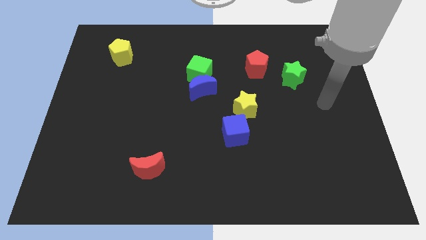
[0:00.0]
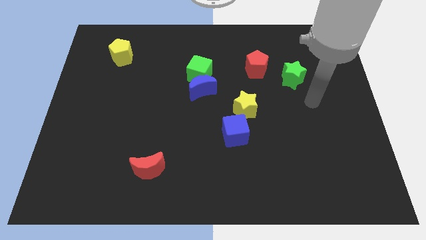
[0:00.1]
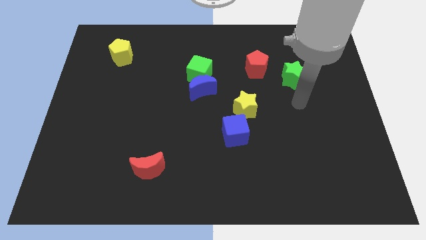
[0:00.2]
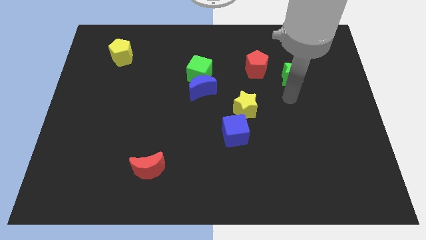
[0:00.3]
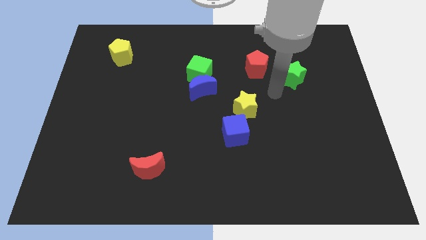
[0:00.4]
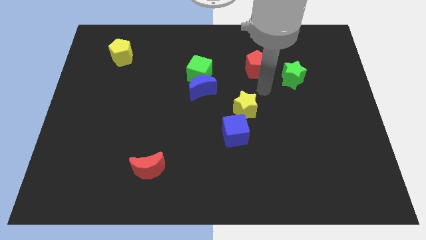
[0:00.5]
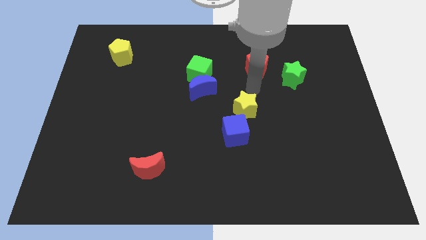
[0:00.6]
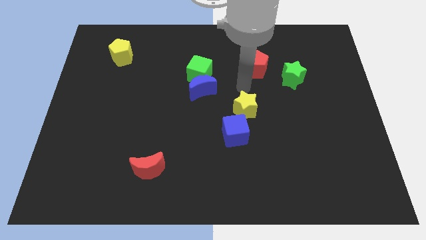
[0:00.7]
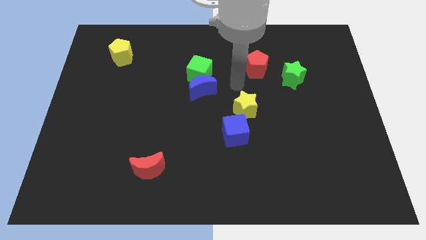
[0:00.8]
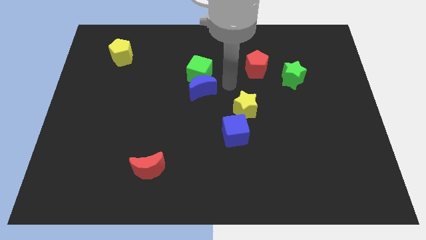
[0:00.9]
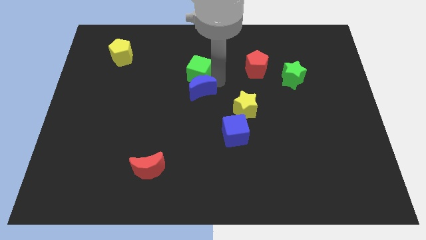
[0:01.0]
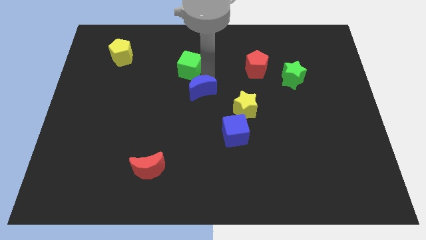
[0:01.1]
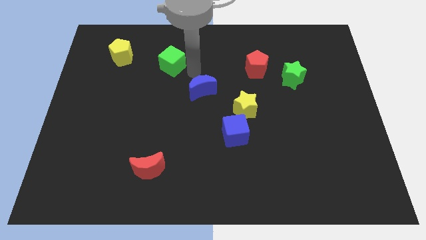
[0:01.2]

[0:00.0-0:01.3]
separate the blue moon from the green cube

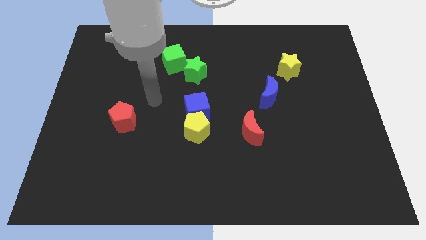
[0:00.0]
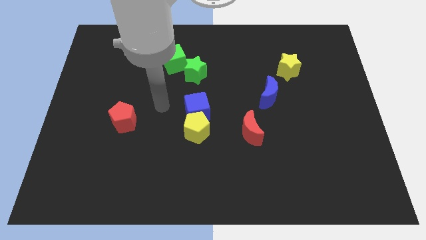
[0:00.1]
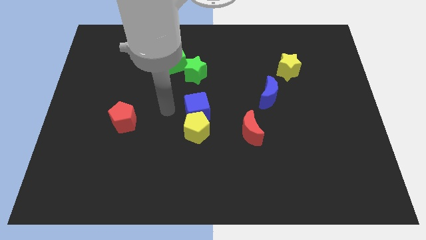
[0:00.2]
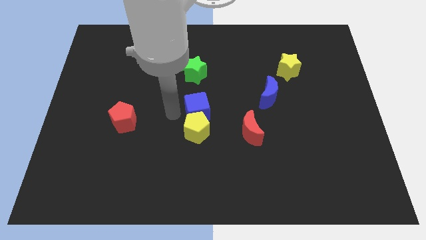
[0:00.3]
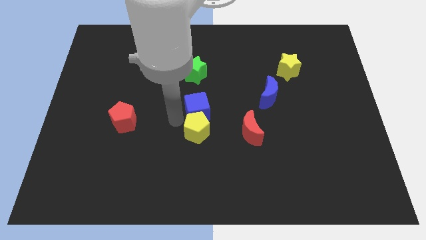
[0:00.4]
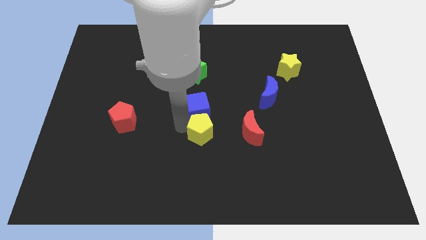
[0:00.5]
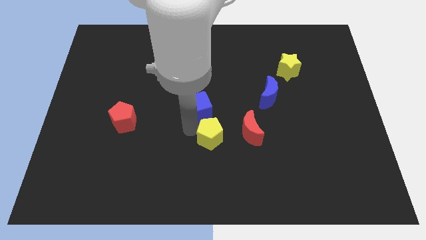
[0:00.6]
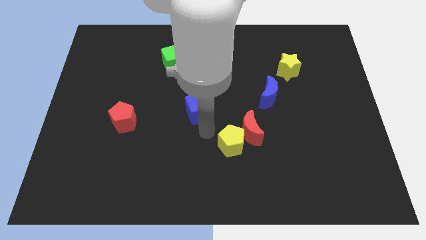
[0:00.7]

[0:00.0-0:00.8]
pull the blue cube apart from the yellow pentagon

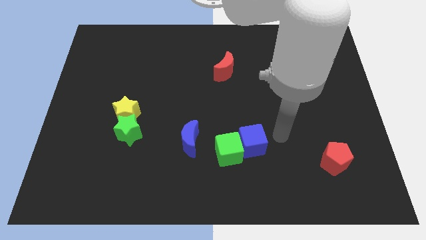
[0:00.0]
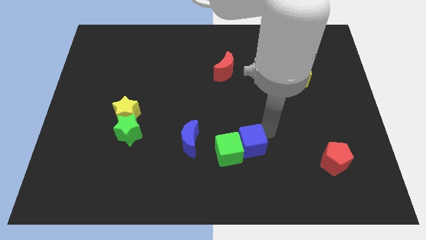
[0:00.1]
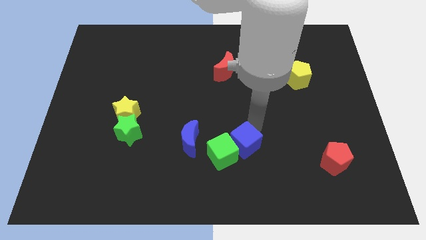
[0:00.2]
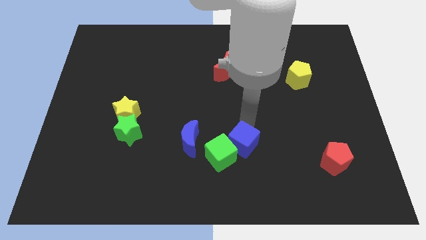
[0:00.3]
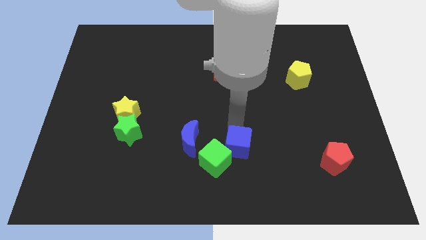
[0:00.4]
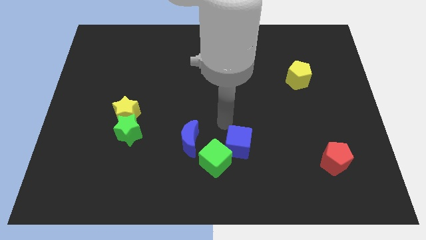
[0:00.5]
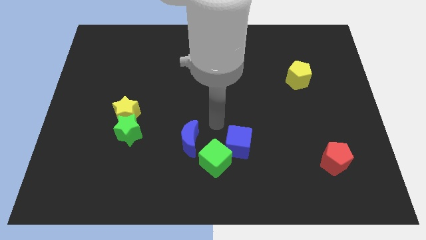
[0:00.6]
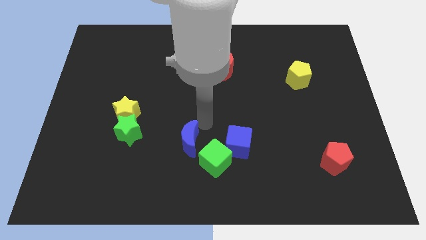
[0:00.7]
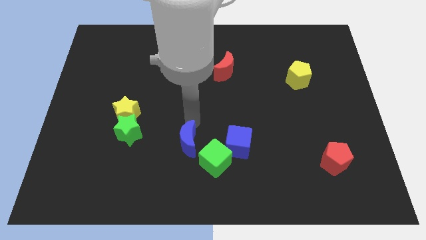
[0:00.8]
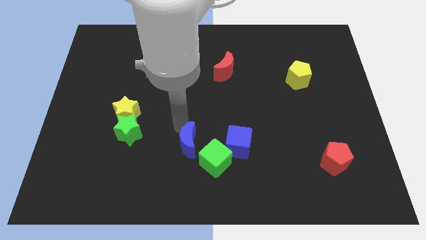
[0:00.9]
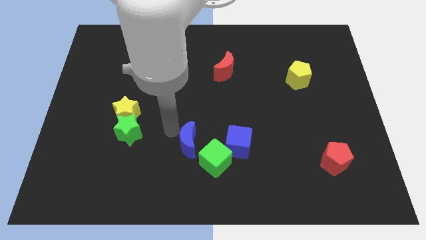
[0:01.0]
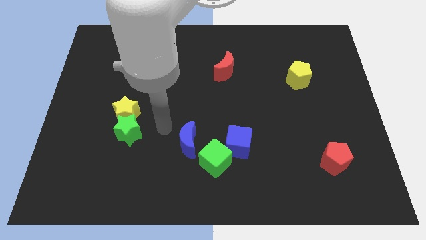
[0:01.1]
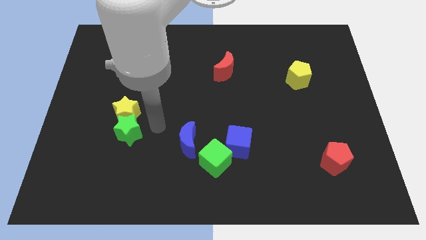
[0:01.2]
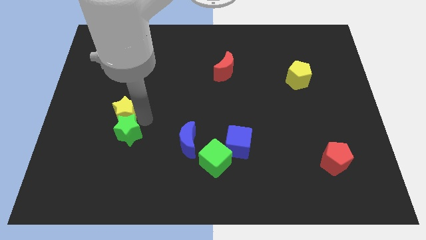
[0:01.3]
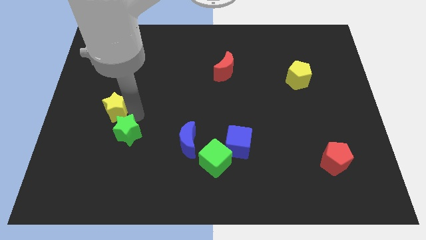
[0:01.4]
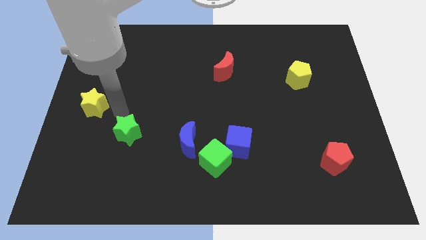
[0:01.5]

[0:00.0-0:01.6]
separate the green star from the yellow star

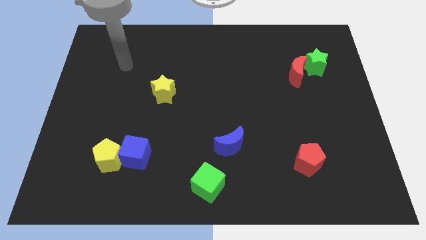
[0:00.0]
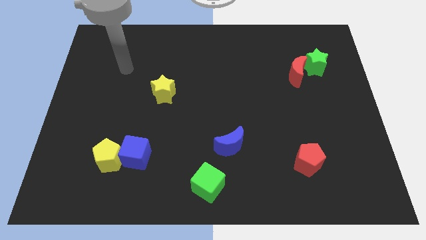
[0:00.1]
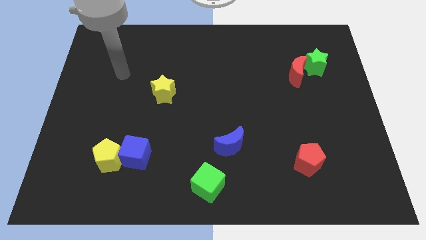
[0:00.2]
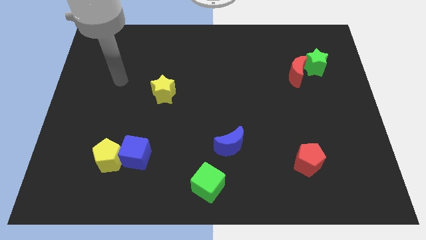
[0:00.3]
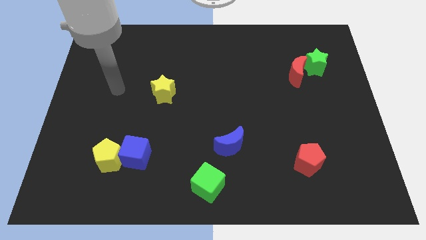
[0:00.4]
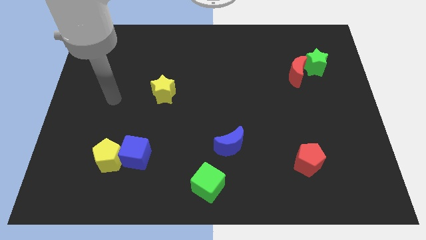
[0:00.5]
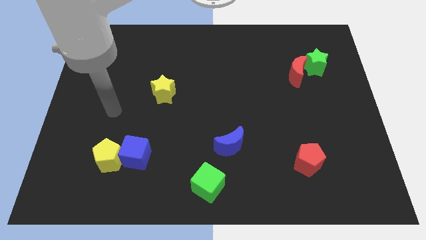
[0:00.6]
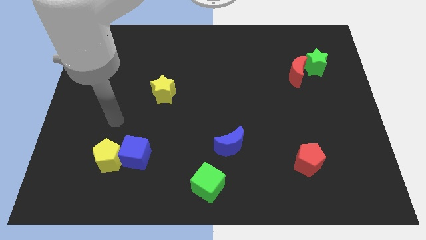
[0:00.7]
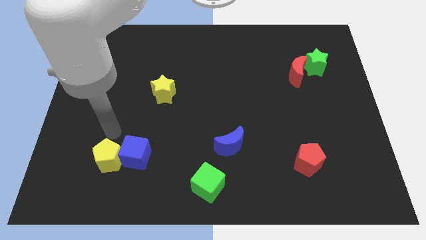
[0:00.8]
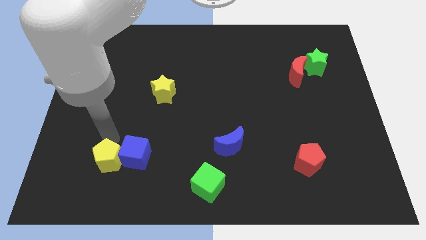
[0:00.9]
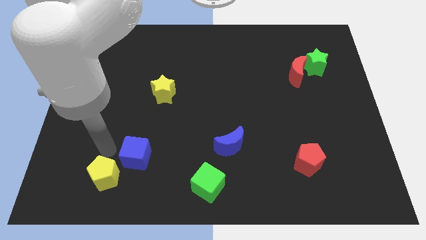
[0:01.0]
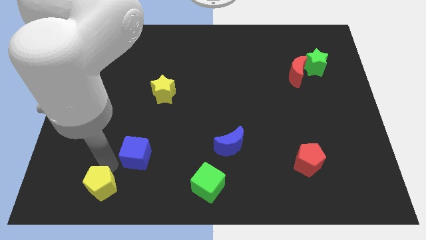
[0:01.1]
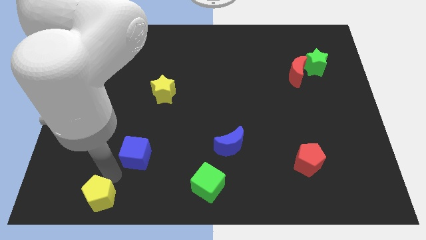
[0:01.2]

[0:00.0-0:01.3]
move the blue cube away from the yellow pentagon

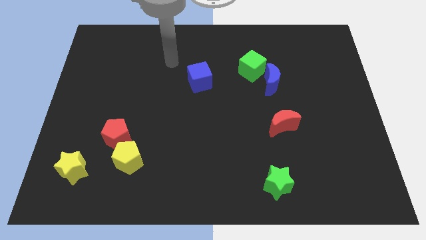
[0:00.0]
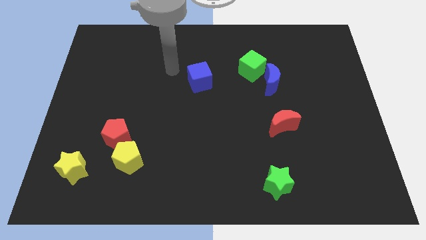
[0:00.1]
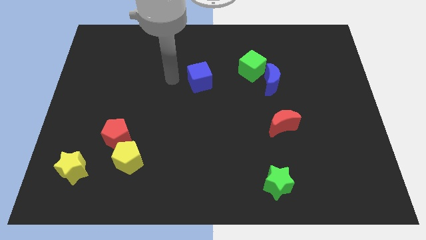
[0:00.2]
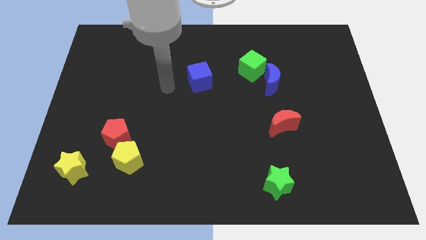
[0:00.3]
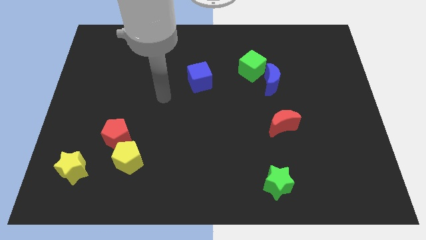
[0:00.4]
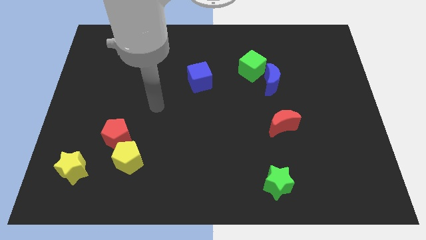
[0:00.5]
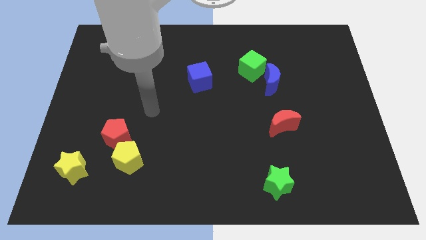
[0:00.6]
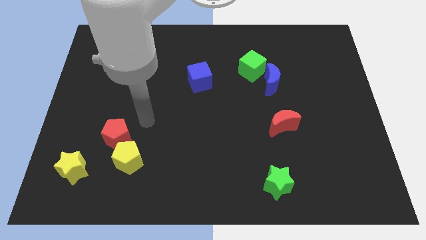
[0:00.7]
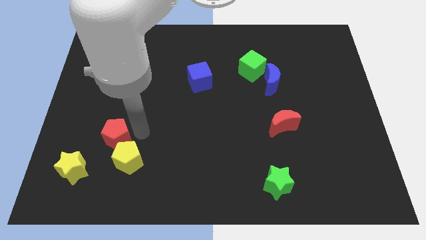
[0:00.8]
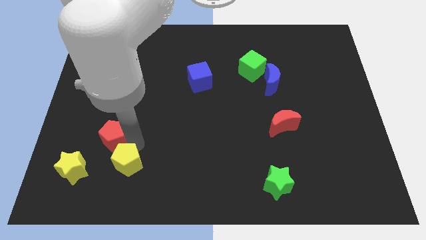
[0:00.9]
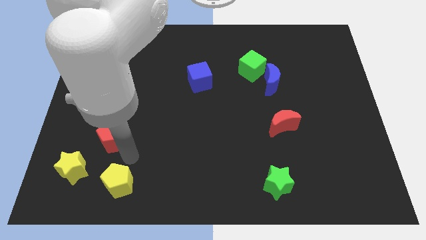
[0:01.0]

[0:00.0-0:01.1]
move the red pentagon away from the yellow pentagon

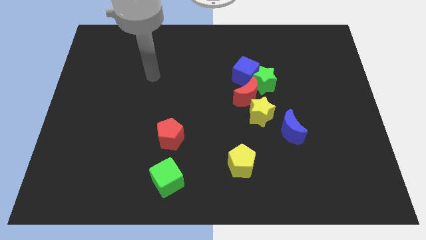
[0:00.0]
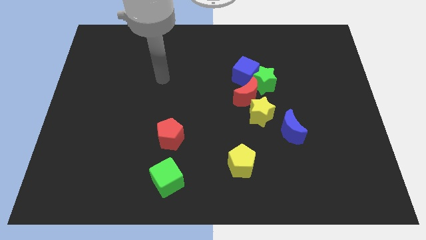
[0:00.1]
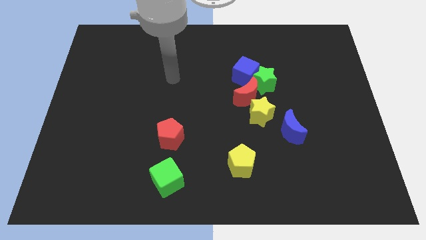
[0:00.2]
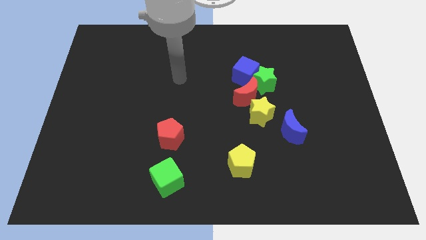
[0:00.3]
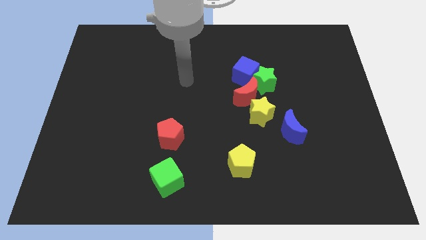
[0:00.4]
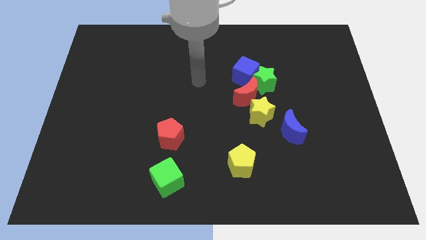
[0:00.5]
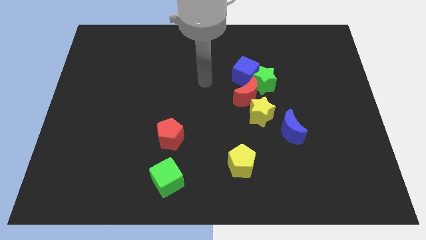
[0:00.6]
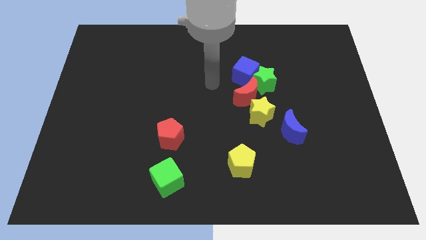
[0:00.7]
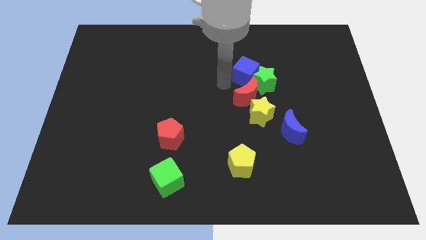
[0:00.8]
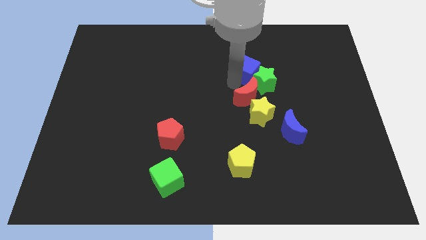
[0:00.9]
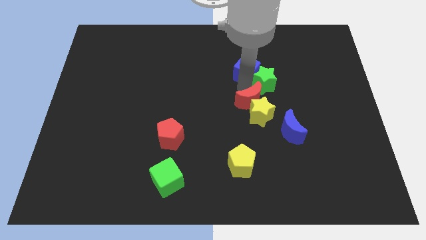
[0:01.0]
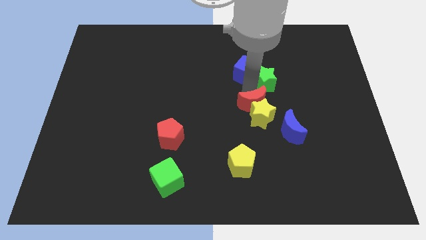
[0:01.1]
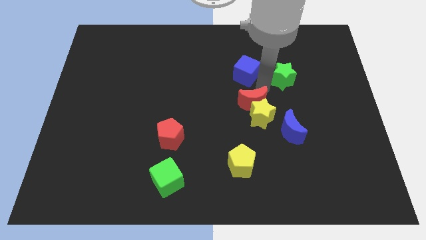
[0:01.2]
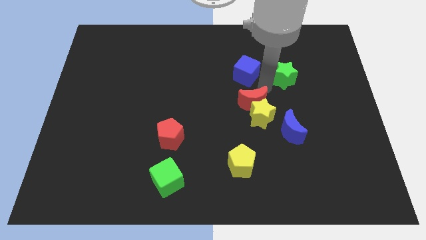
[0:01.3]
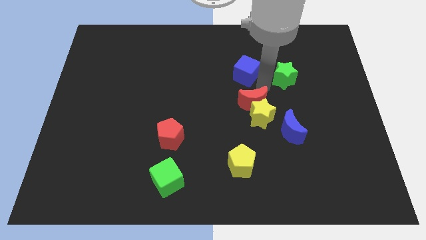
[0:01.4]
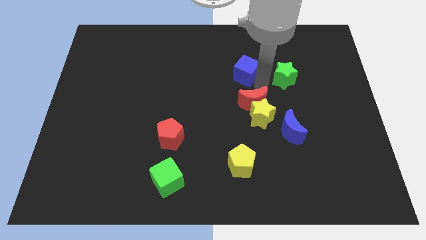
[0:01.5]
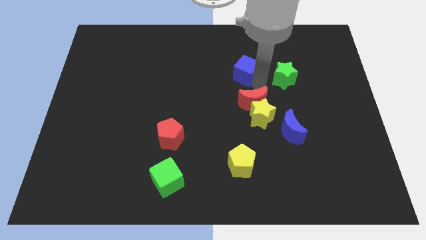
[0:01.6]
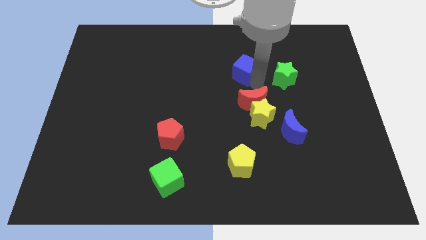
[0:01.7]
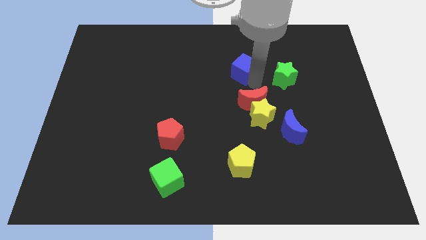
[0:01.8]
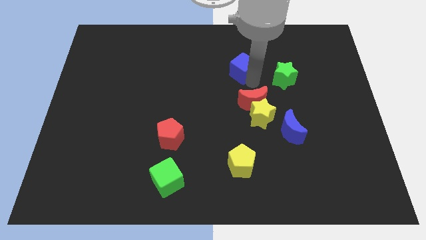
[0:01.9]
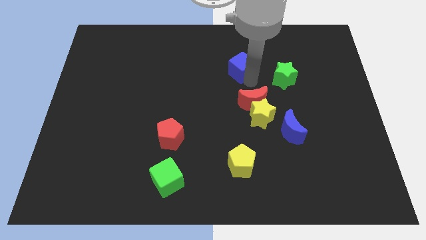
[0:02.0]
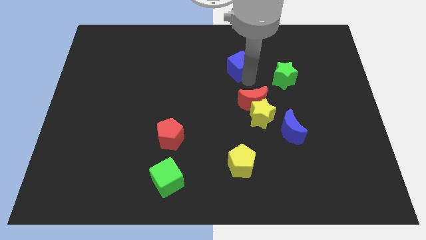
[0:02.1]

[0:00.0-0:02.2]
separate the blue cube from the green star and red moon

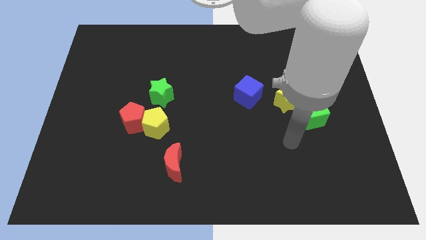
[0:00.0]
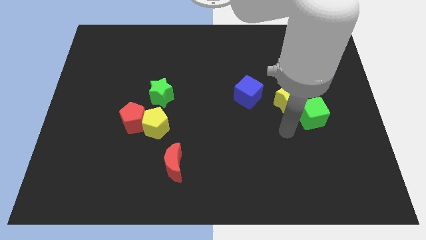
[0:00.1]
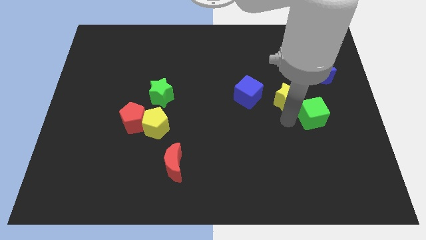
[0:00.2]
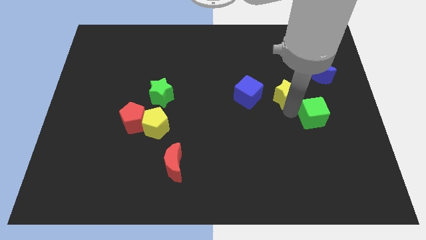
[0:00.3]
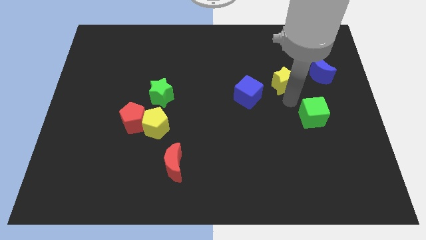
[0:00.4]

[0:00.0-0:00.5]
pull the green cube apart from the yellow star

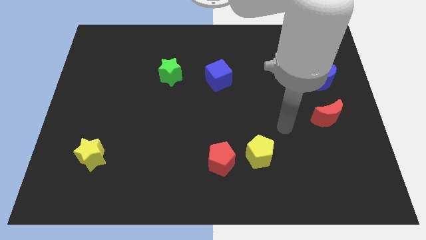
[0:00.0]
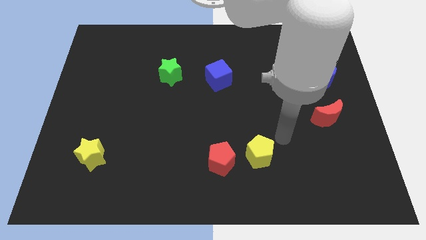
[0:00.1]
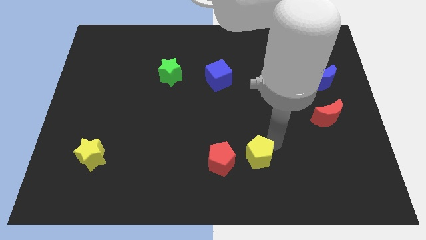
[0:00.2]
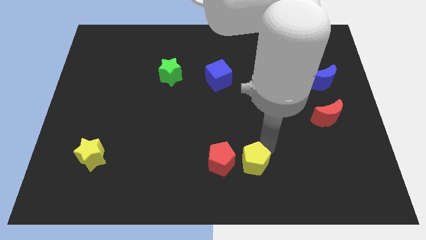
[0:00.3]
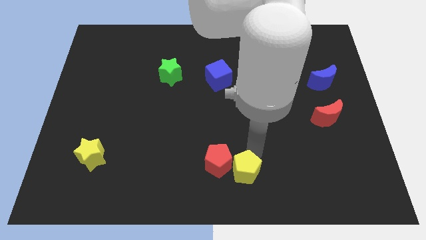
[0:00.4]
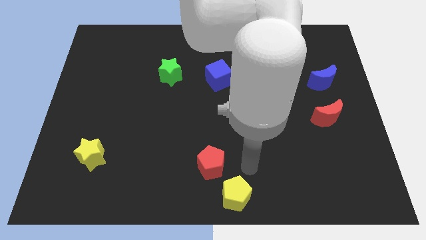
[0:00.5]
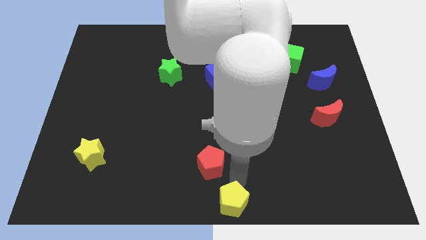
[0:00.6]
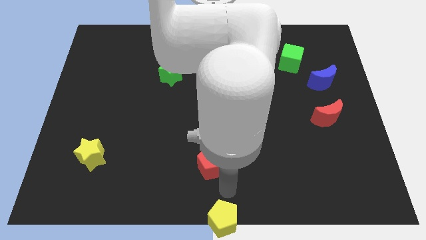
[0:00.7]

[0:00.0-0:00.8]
separate the red pentagon from the yellow pentagon
